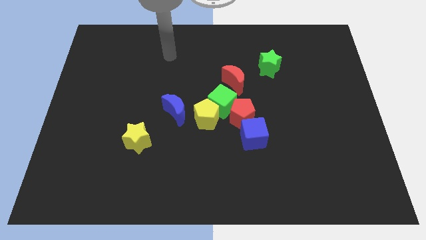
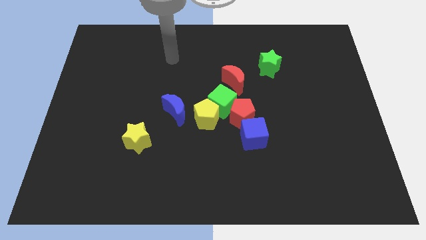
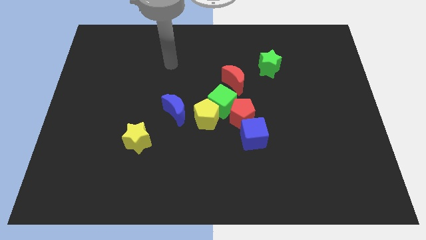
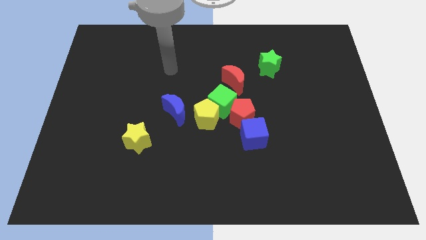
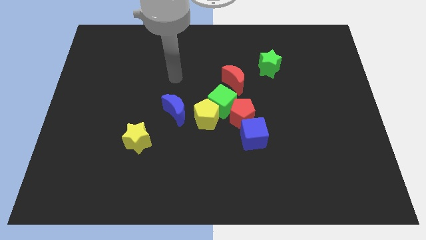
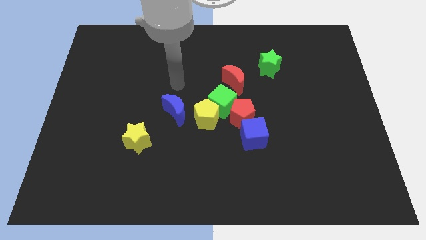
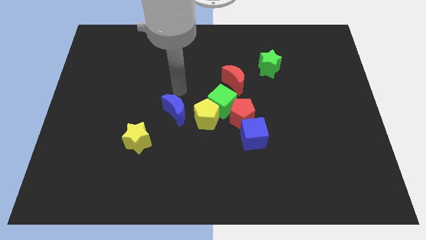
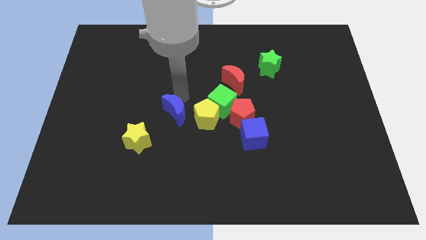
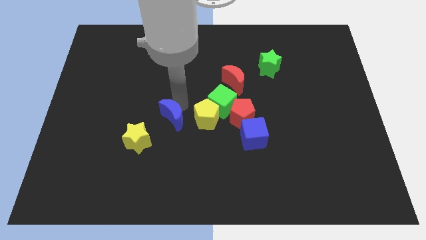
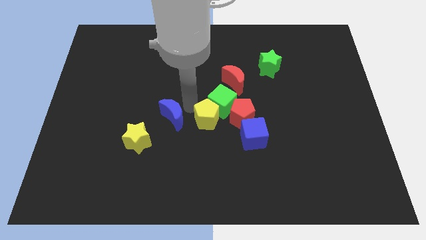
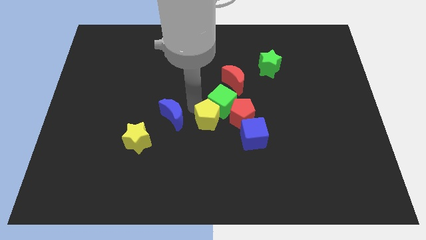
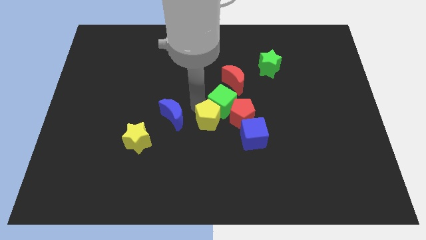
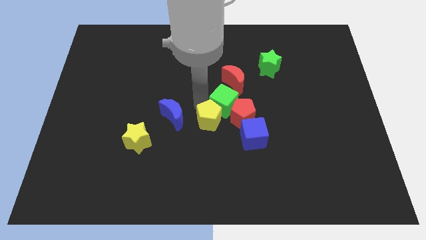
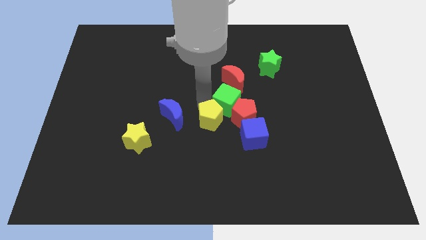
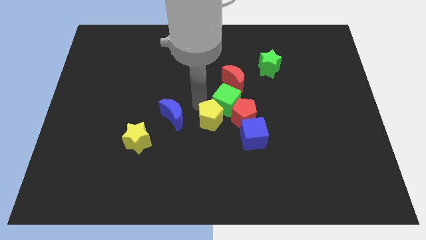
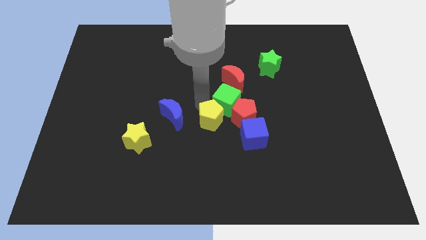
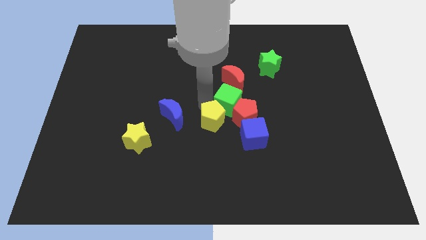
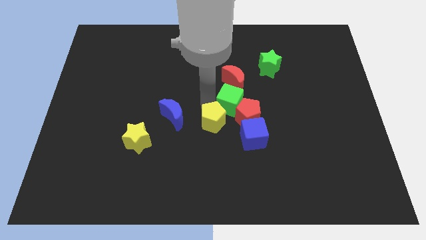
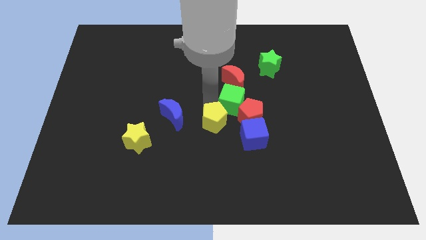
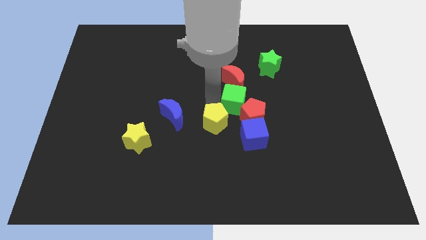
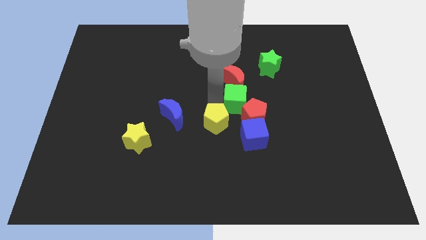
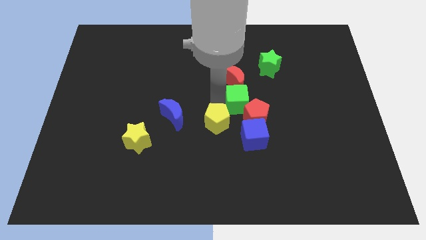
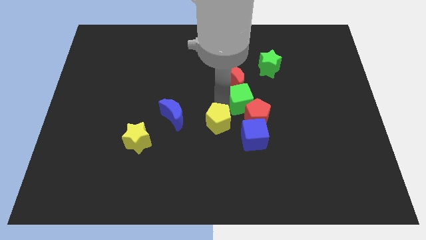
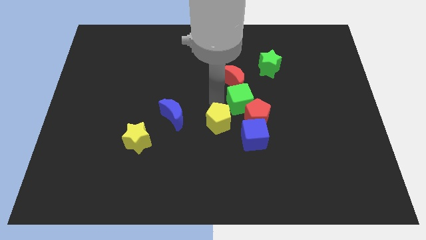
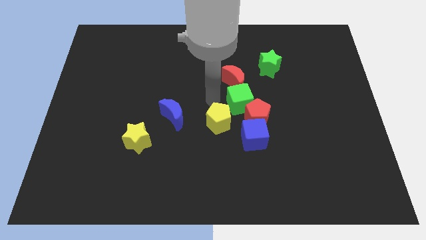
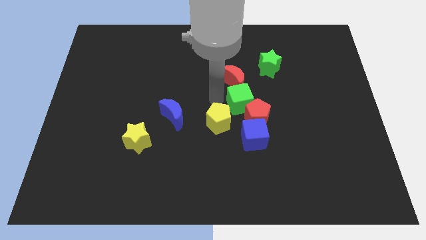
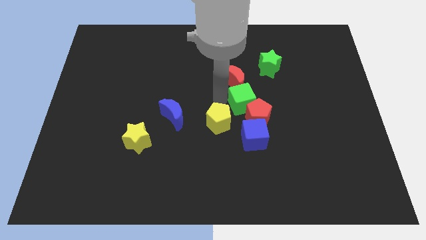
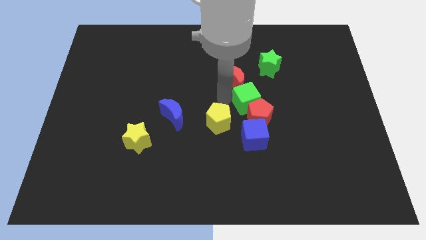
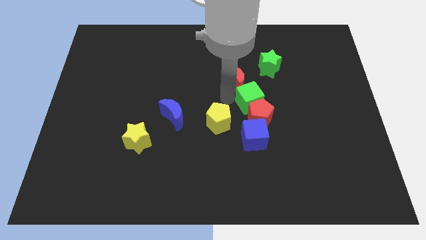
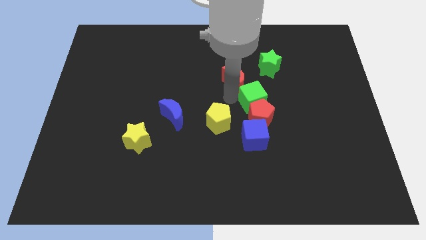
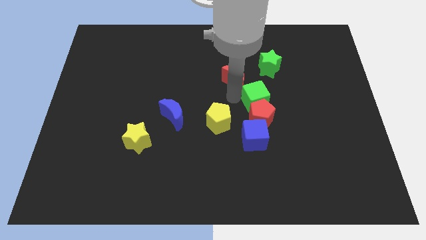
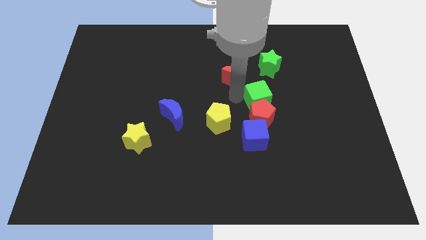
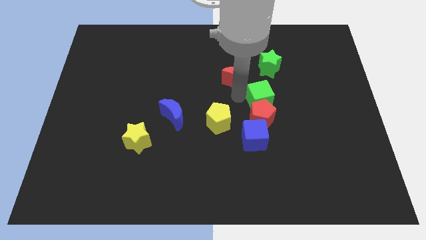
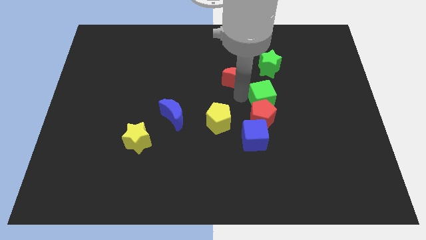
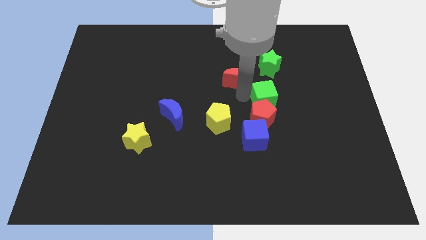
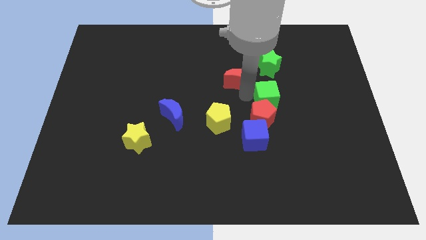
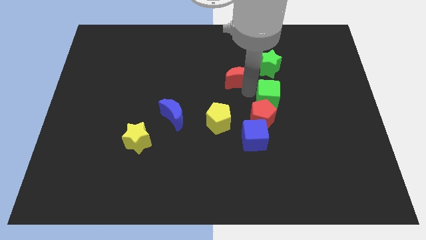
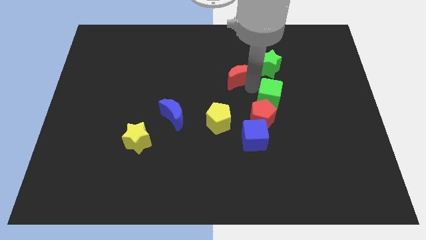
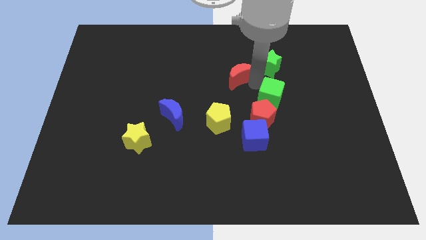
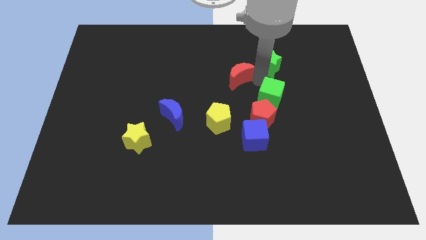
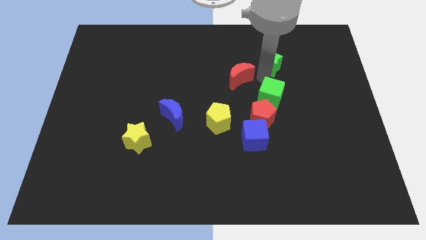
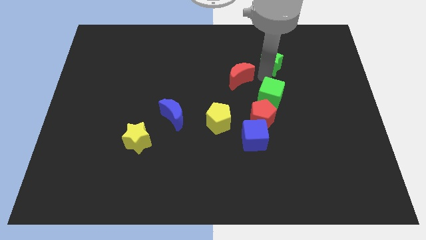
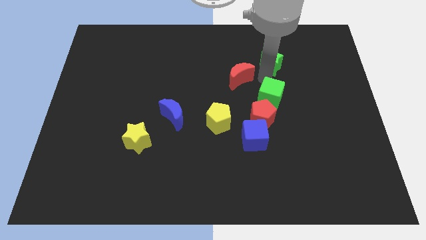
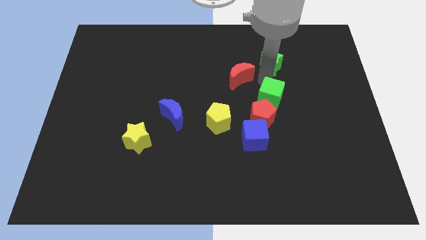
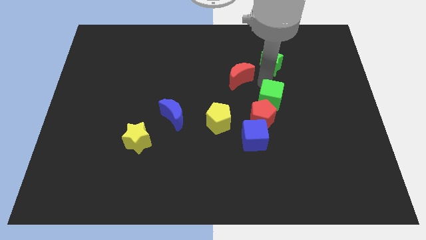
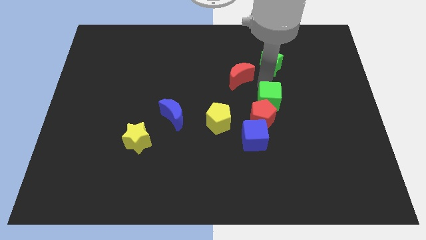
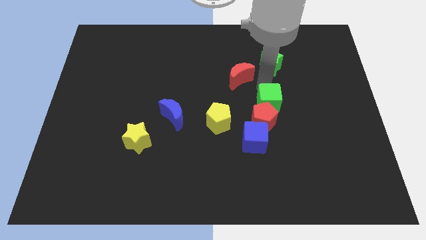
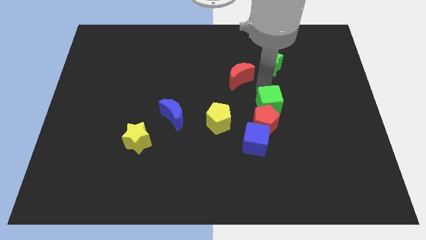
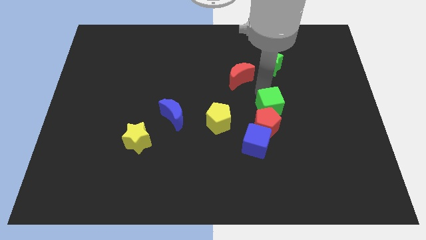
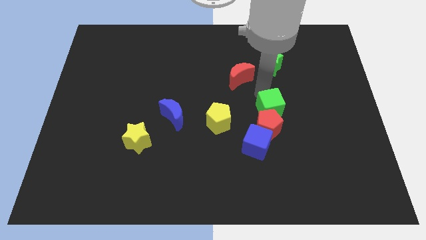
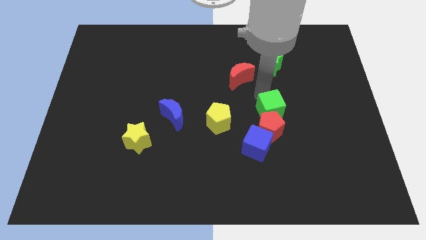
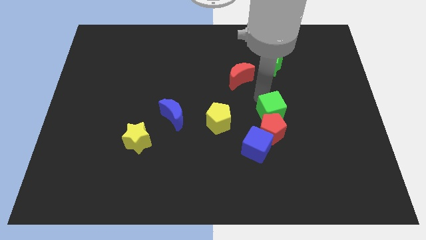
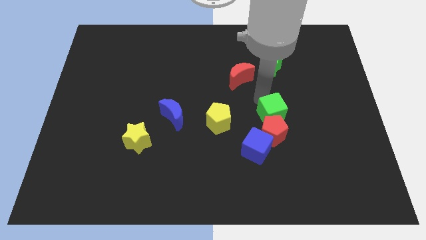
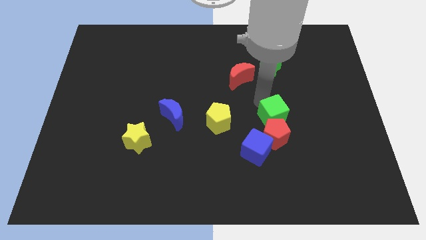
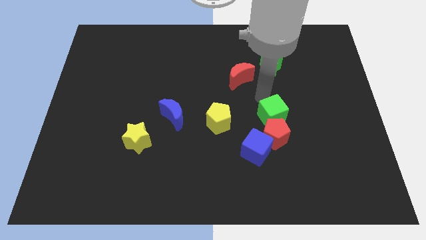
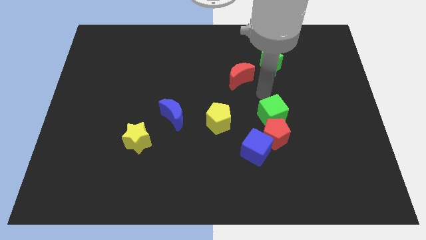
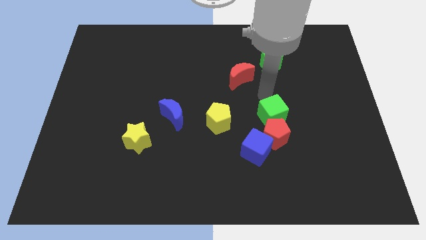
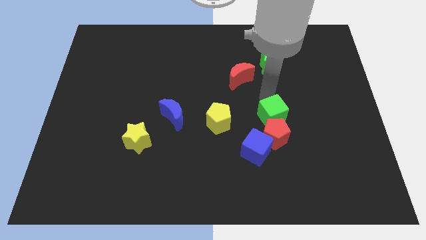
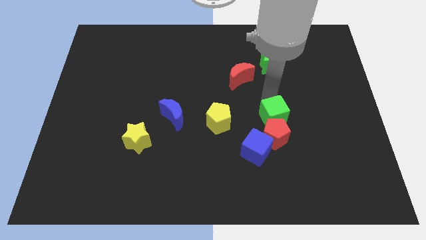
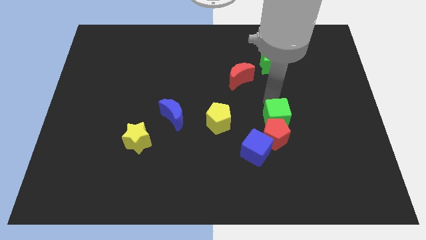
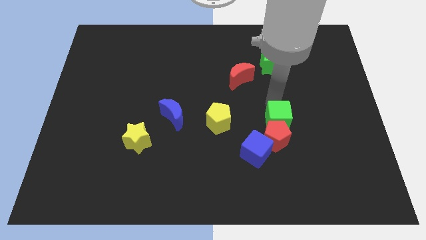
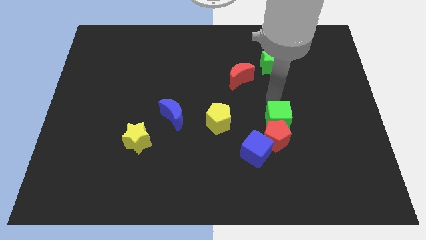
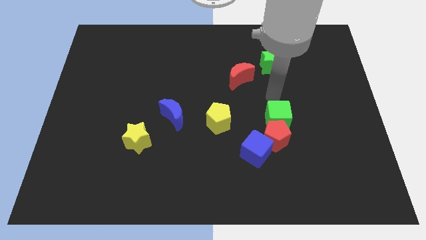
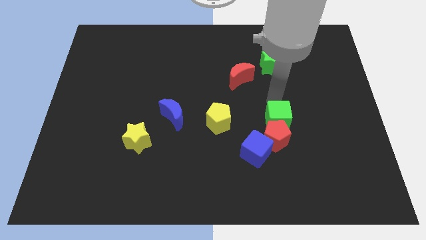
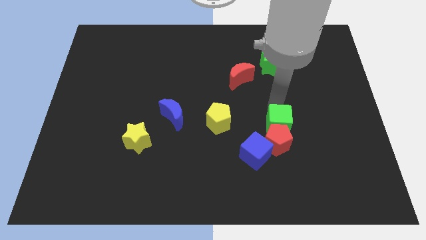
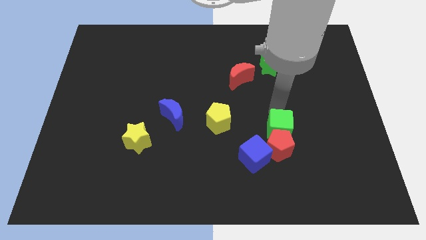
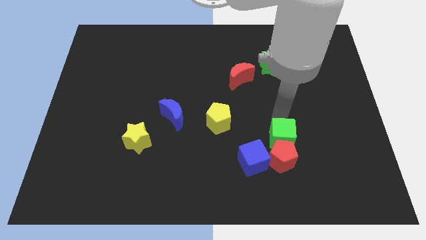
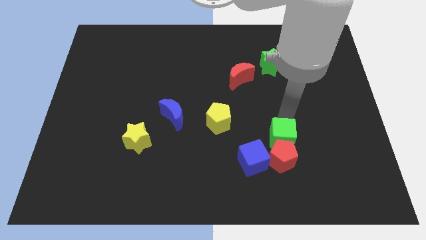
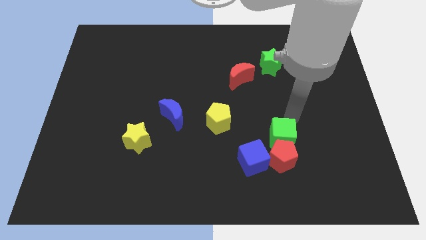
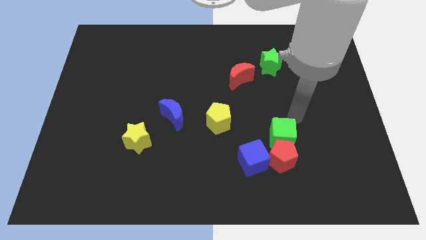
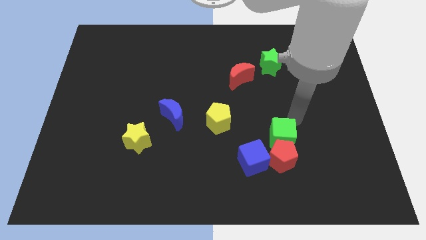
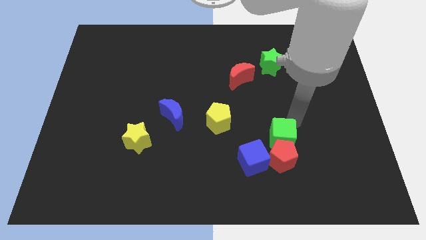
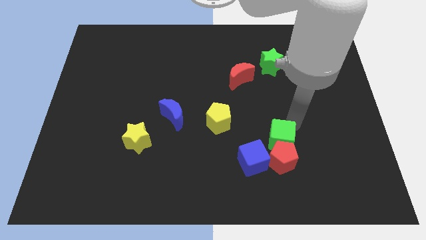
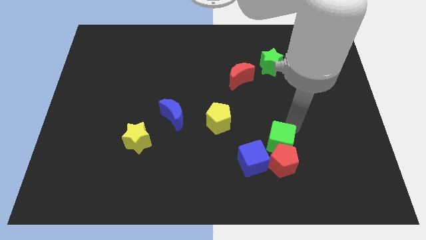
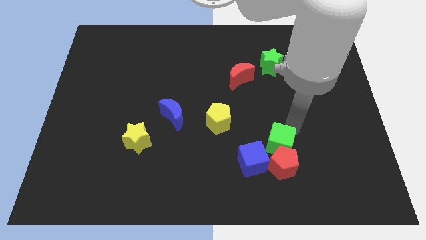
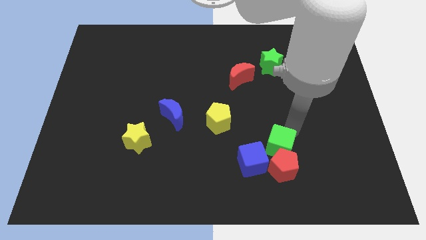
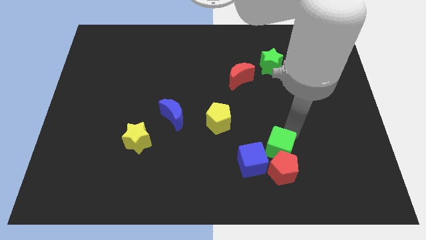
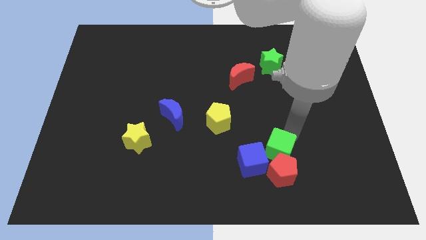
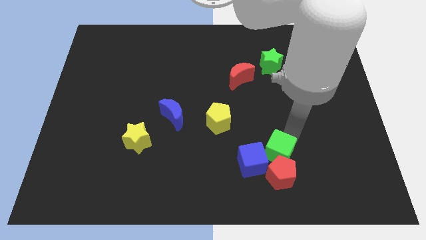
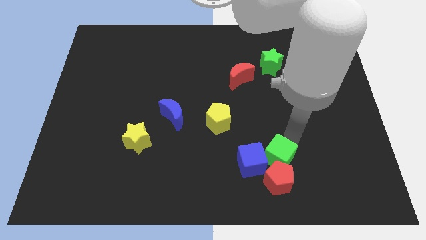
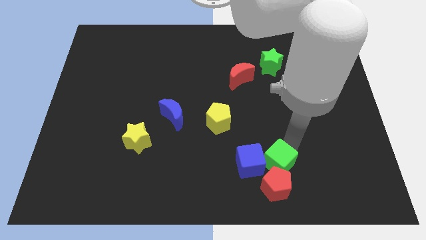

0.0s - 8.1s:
push the green cube down a little bit
